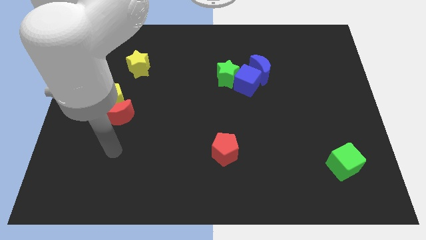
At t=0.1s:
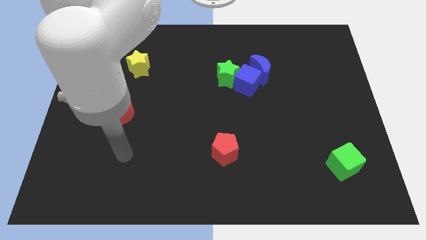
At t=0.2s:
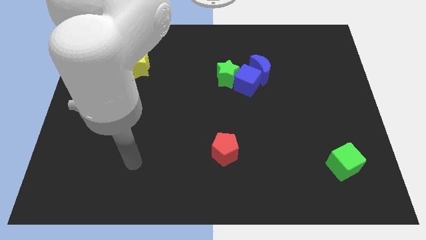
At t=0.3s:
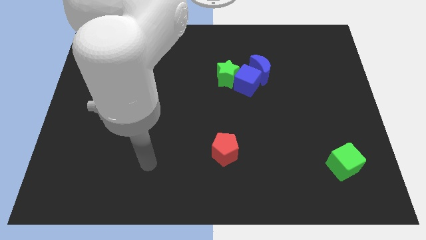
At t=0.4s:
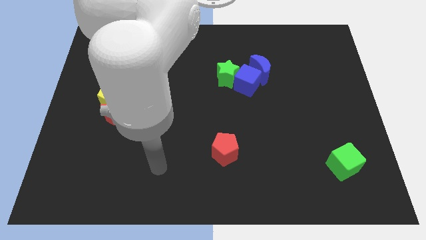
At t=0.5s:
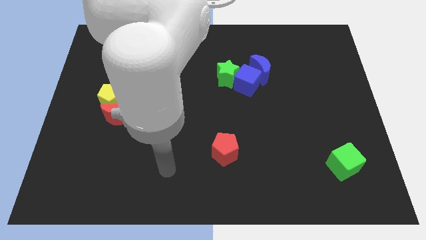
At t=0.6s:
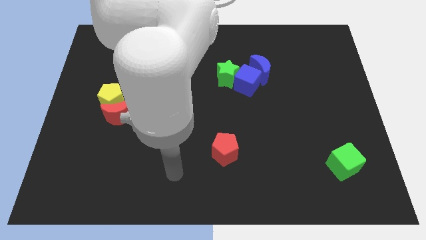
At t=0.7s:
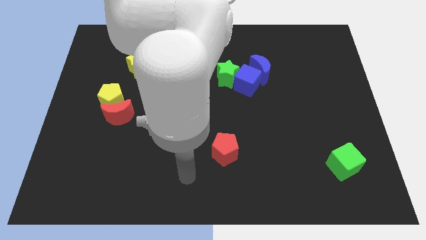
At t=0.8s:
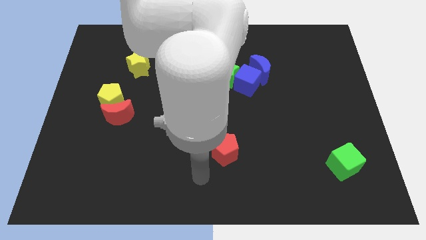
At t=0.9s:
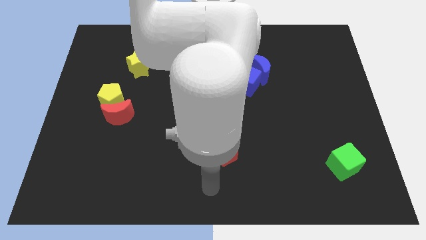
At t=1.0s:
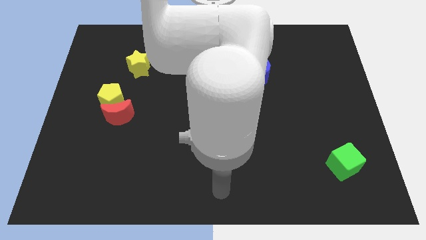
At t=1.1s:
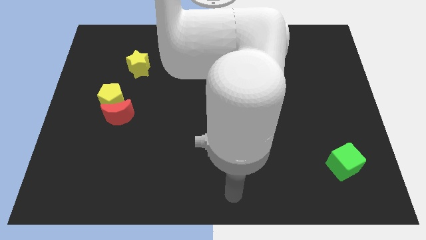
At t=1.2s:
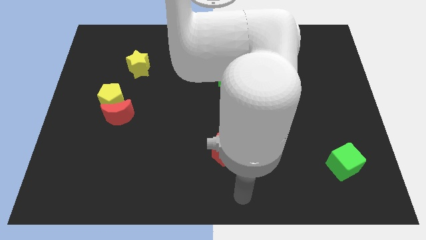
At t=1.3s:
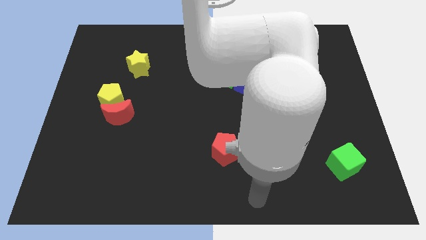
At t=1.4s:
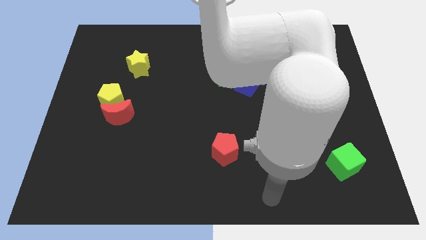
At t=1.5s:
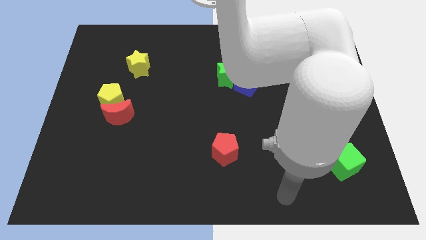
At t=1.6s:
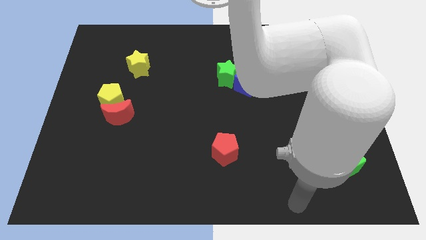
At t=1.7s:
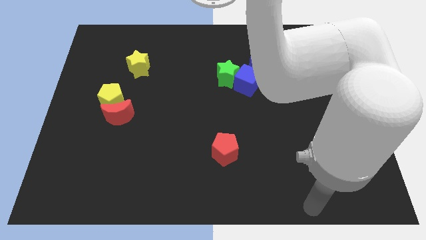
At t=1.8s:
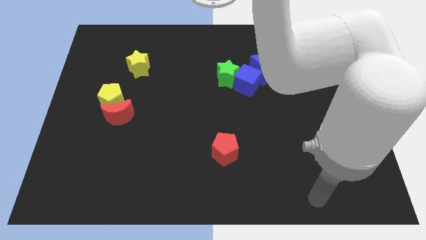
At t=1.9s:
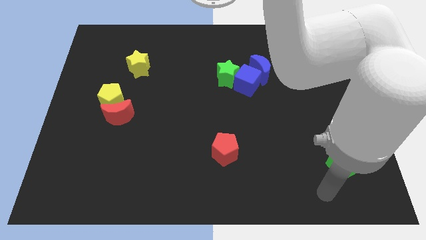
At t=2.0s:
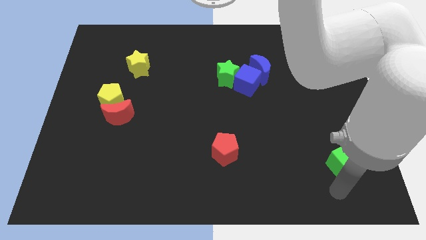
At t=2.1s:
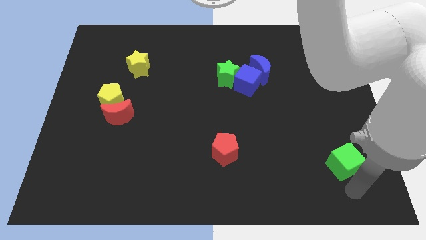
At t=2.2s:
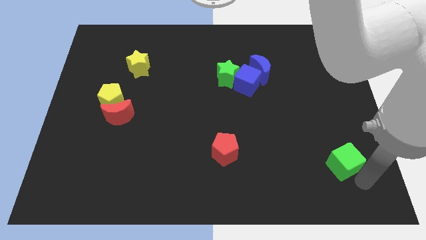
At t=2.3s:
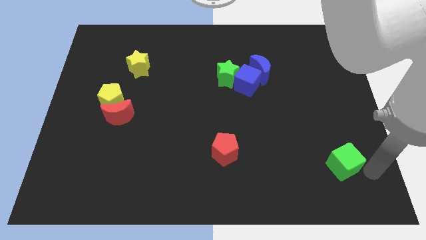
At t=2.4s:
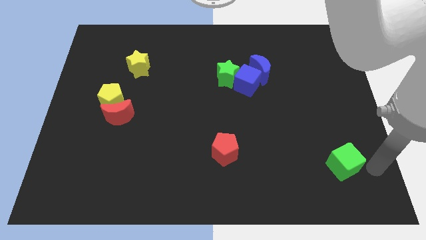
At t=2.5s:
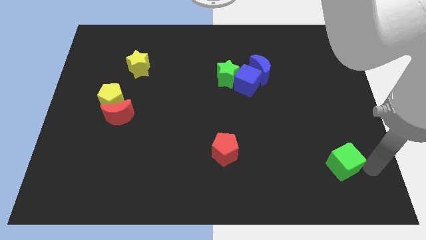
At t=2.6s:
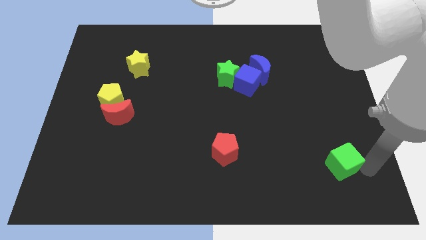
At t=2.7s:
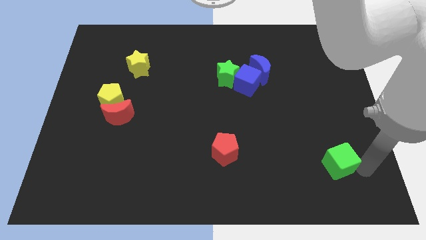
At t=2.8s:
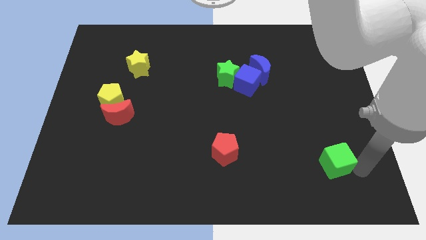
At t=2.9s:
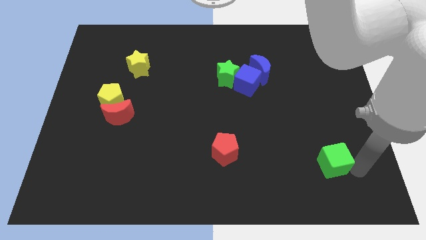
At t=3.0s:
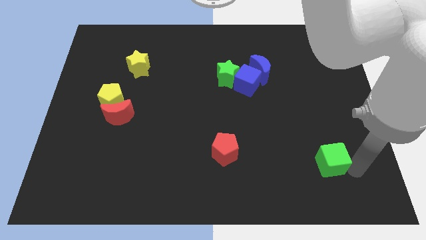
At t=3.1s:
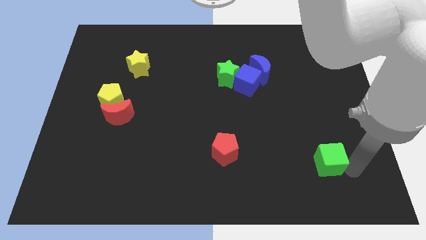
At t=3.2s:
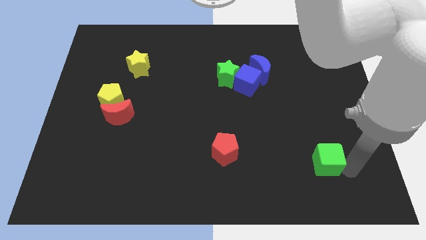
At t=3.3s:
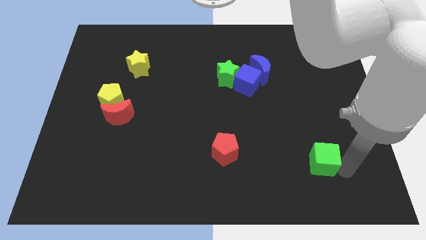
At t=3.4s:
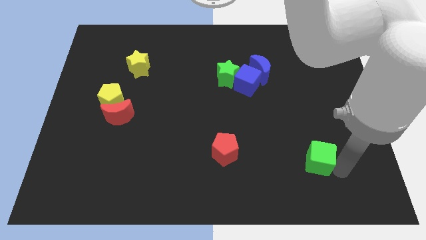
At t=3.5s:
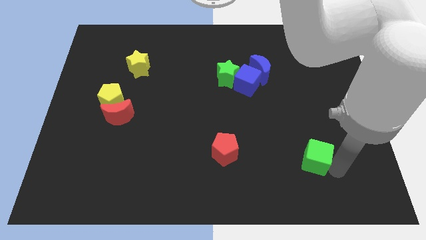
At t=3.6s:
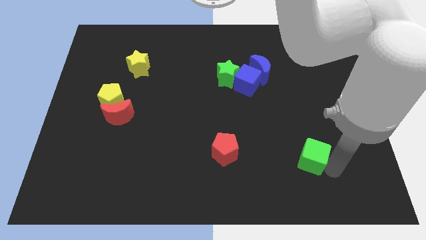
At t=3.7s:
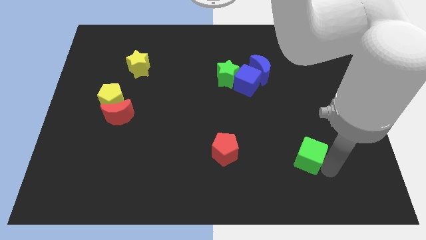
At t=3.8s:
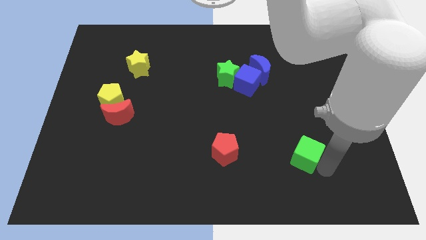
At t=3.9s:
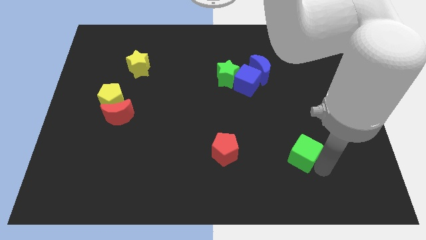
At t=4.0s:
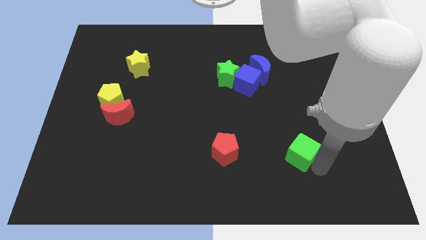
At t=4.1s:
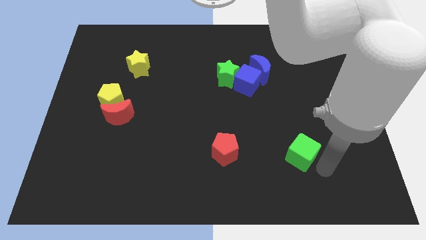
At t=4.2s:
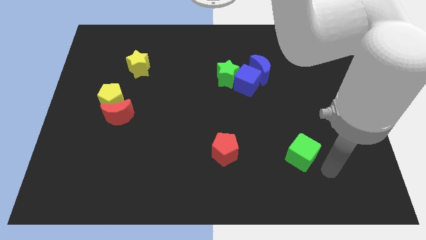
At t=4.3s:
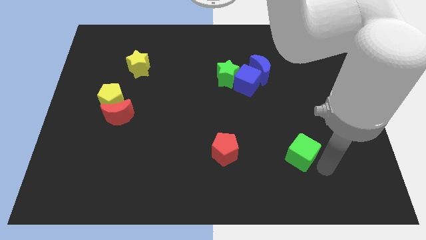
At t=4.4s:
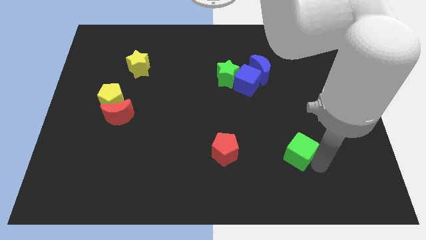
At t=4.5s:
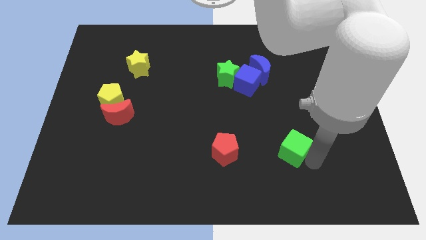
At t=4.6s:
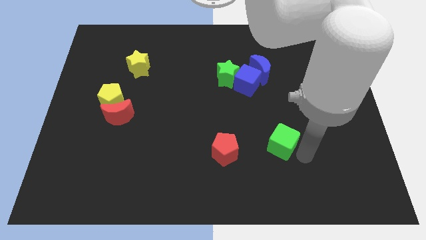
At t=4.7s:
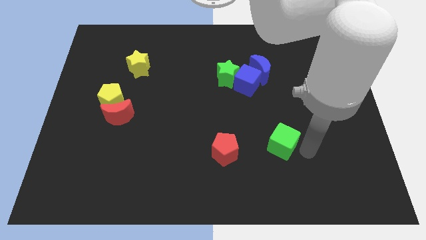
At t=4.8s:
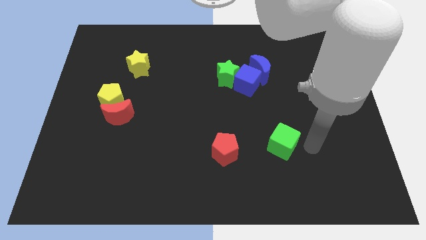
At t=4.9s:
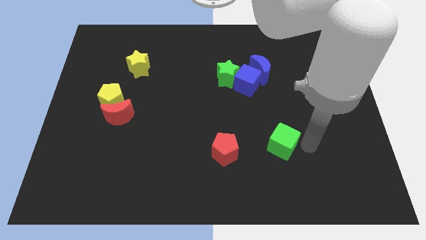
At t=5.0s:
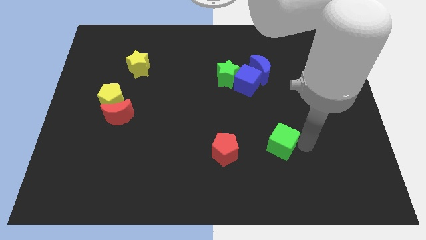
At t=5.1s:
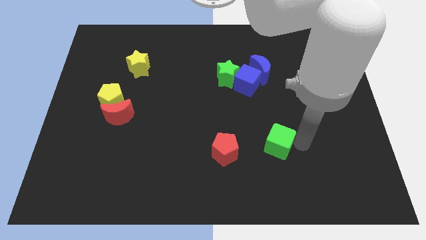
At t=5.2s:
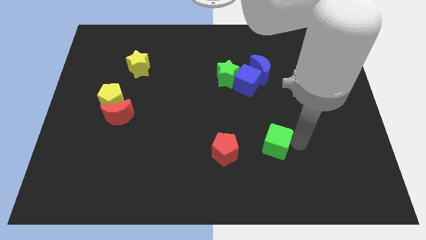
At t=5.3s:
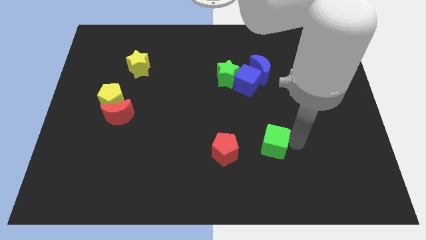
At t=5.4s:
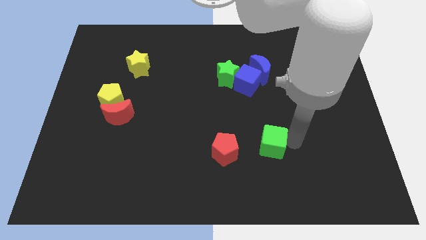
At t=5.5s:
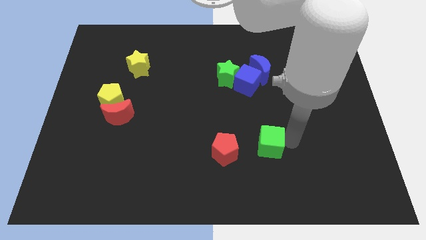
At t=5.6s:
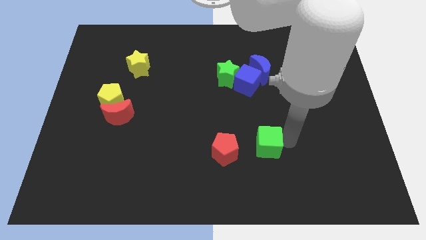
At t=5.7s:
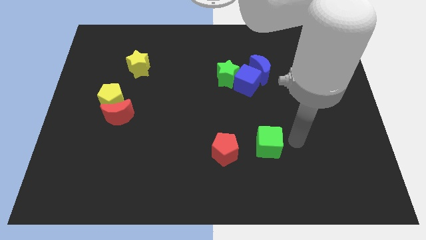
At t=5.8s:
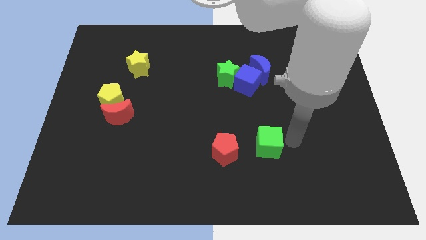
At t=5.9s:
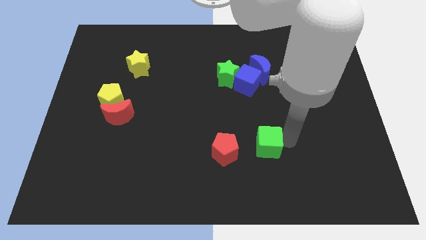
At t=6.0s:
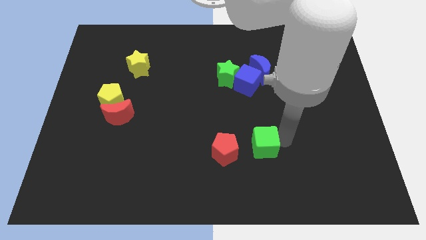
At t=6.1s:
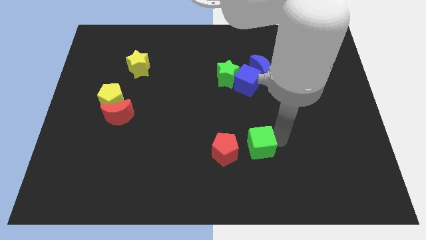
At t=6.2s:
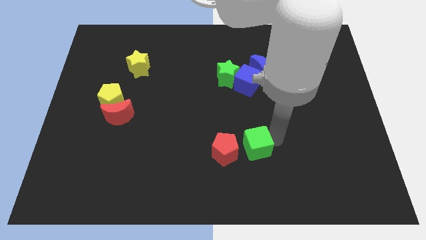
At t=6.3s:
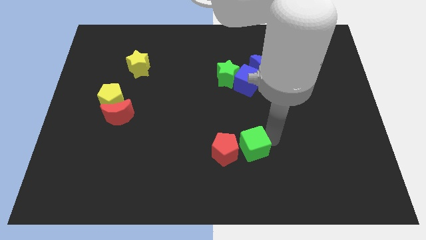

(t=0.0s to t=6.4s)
slide the green cube towards the red pentagon

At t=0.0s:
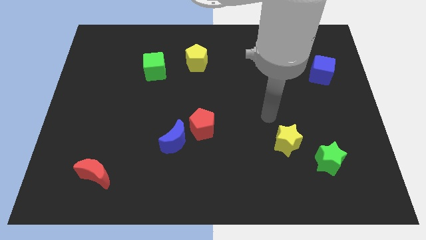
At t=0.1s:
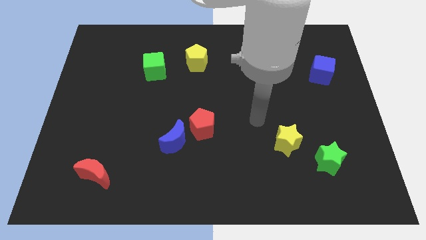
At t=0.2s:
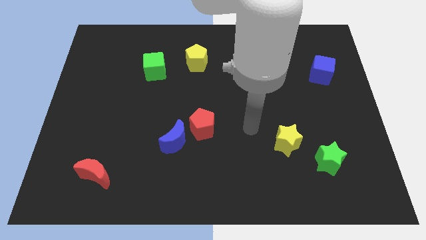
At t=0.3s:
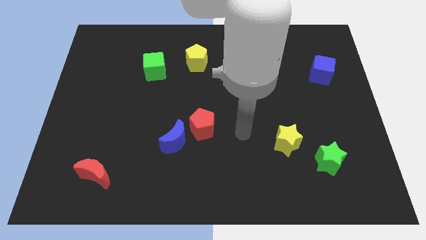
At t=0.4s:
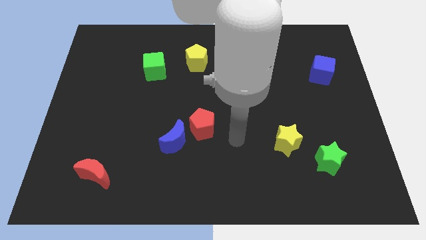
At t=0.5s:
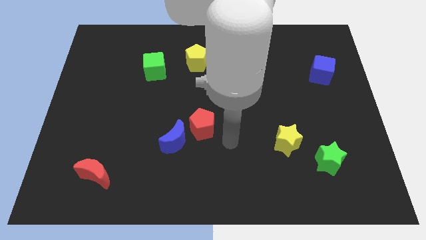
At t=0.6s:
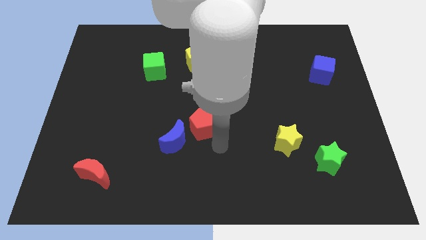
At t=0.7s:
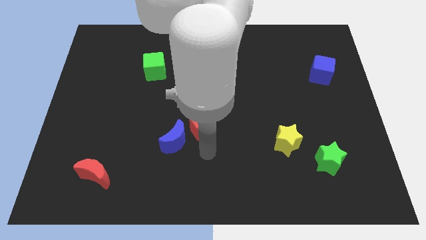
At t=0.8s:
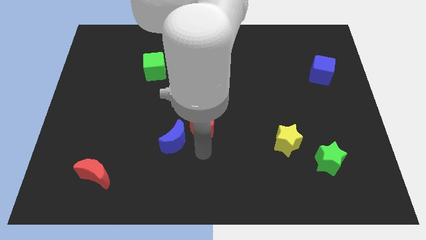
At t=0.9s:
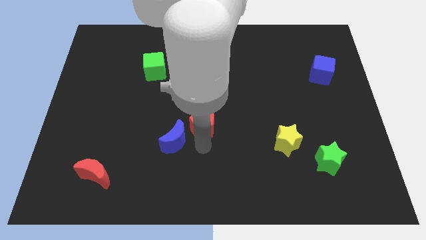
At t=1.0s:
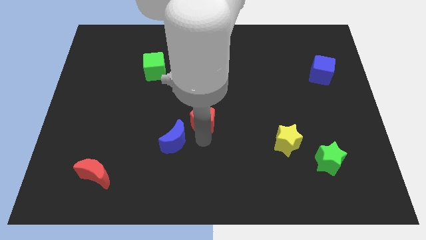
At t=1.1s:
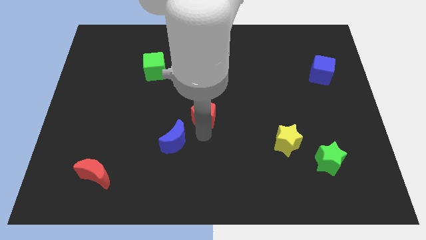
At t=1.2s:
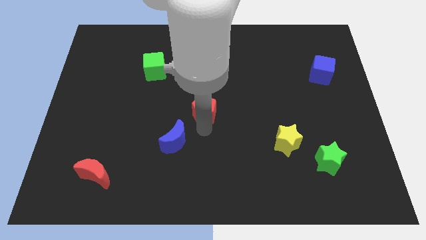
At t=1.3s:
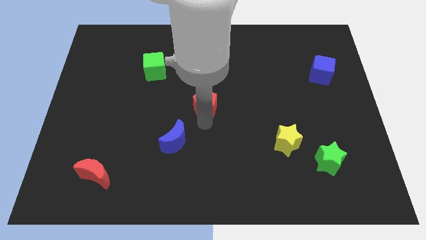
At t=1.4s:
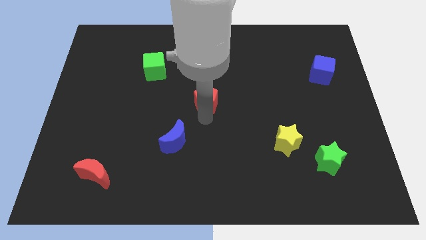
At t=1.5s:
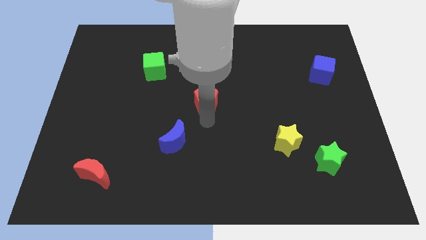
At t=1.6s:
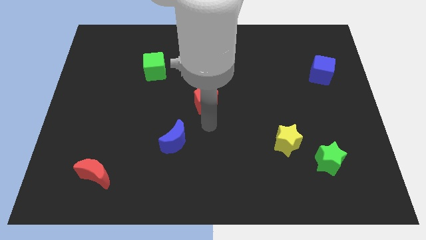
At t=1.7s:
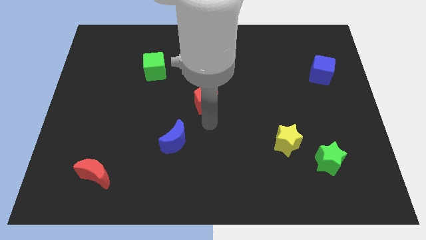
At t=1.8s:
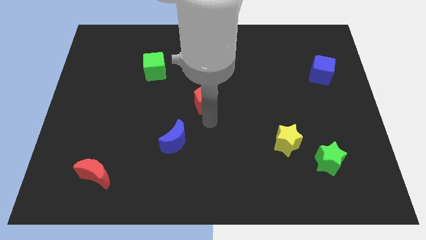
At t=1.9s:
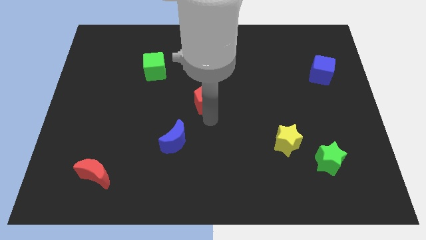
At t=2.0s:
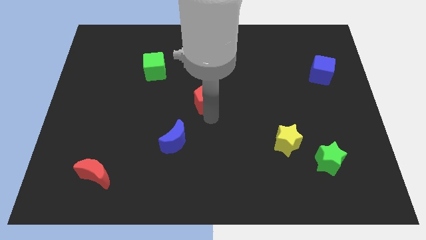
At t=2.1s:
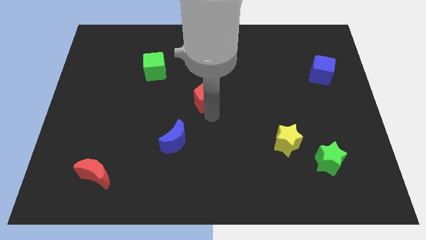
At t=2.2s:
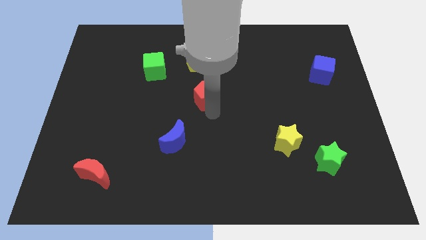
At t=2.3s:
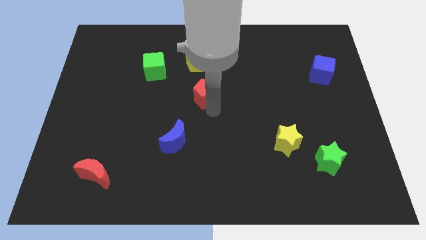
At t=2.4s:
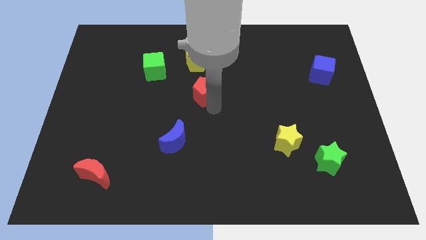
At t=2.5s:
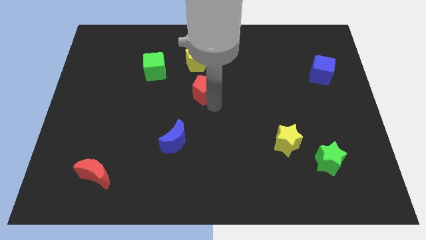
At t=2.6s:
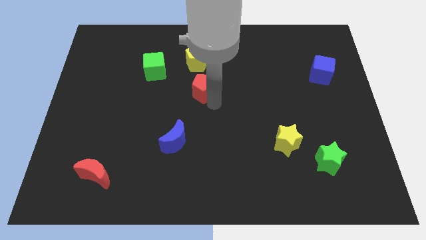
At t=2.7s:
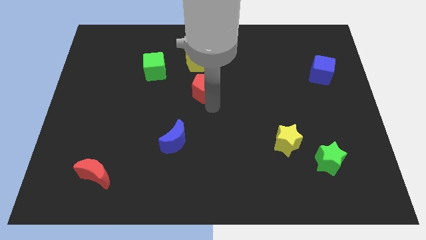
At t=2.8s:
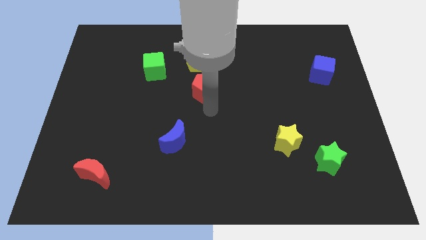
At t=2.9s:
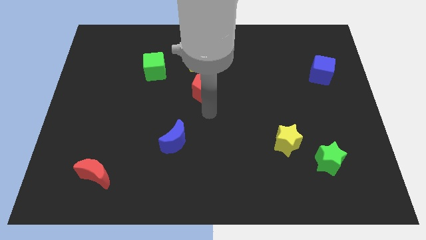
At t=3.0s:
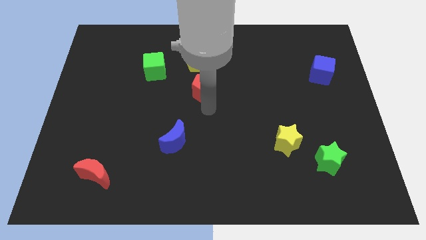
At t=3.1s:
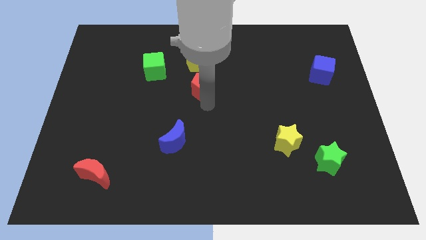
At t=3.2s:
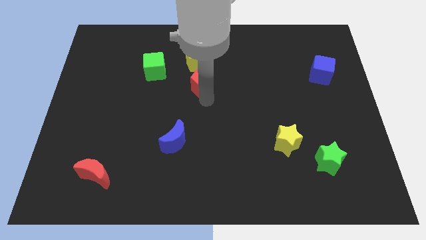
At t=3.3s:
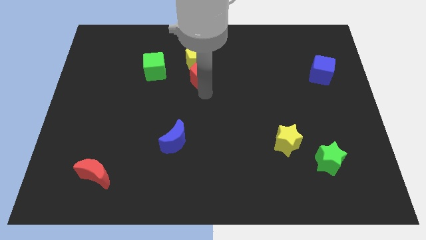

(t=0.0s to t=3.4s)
slide the red pentagon close to the yellow pentagon
